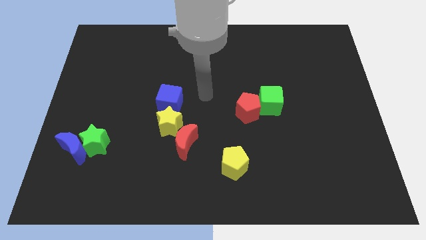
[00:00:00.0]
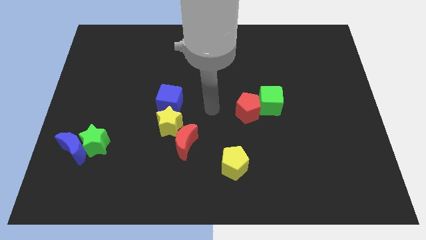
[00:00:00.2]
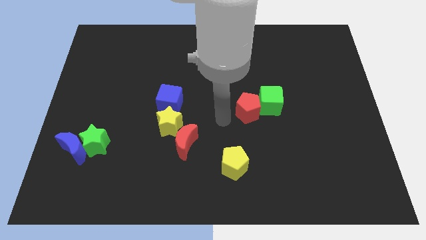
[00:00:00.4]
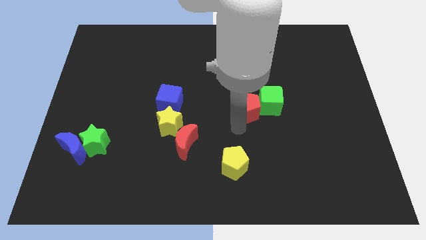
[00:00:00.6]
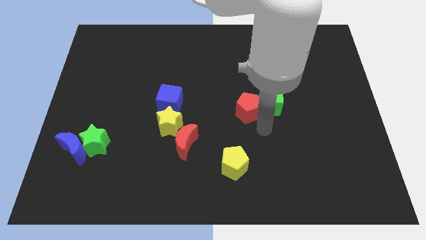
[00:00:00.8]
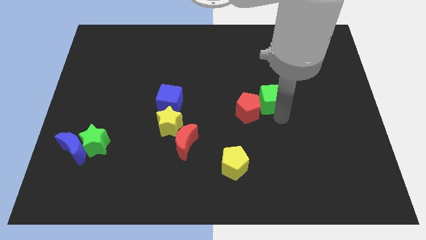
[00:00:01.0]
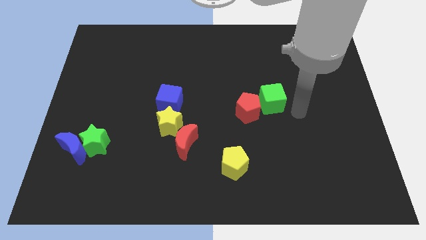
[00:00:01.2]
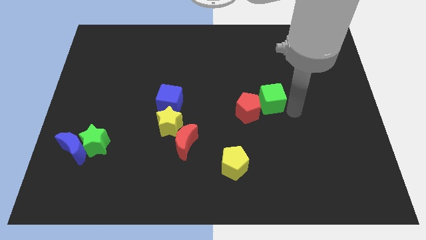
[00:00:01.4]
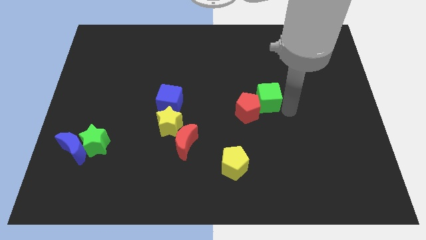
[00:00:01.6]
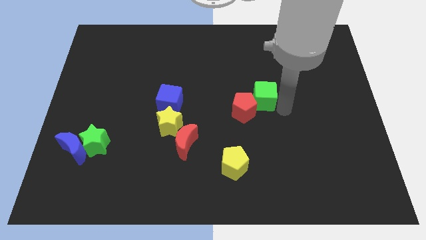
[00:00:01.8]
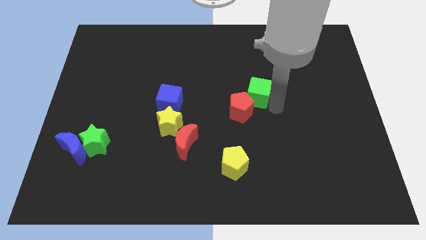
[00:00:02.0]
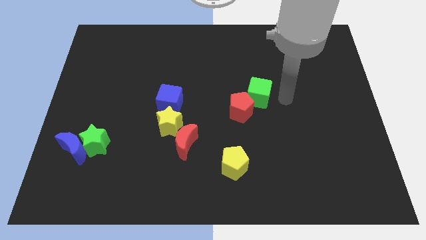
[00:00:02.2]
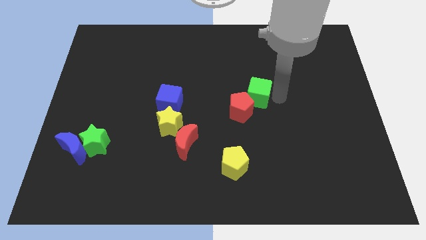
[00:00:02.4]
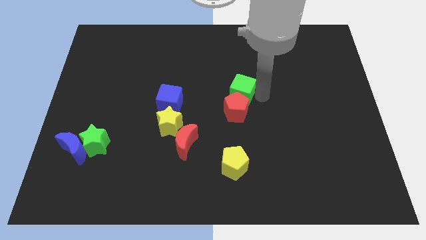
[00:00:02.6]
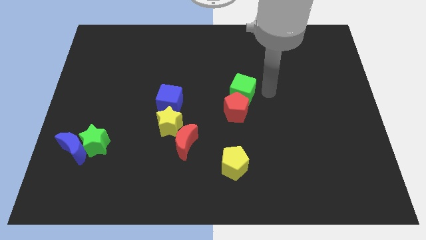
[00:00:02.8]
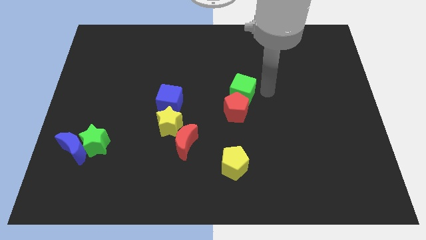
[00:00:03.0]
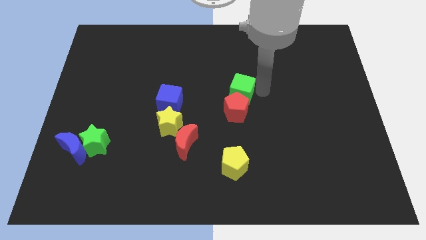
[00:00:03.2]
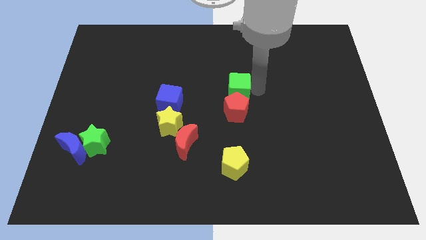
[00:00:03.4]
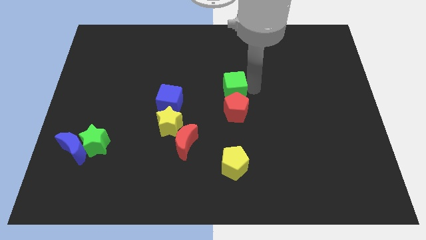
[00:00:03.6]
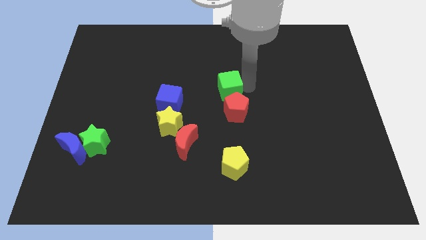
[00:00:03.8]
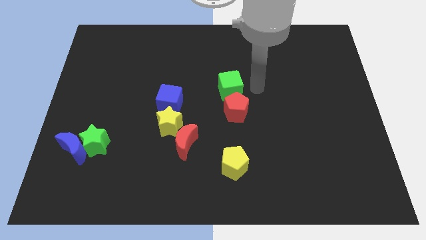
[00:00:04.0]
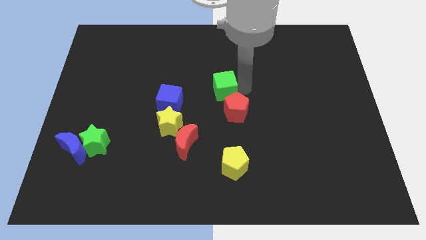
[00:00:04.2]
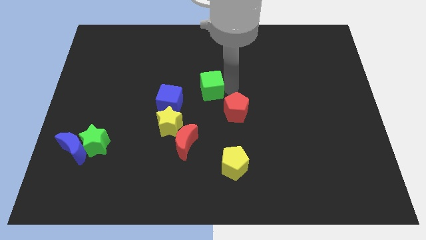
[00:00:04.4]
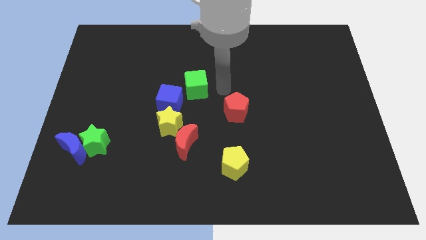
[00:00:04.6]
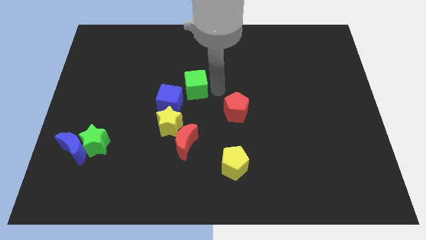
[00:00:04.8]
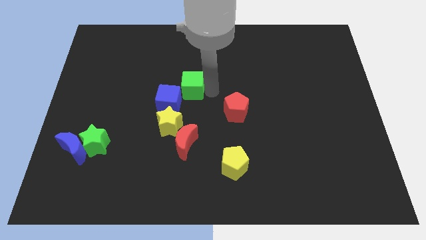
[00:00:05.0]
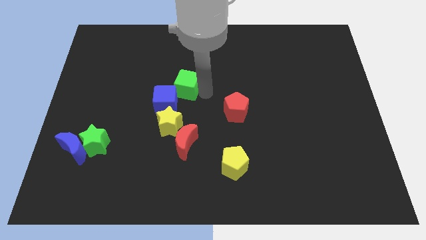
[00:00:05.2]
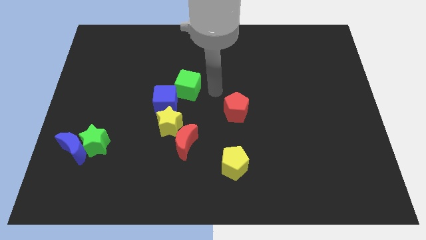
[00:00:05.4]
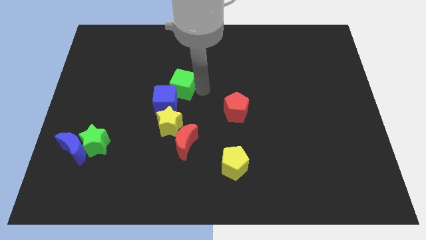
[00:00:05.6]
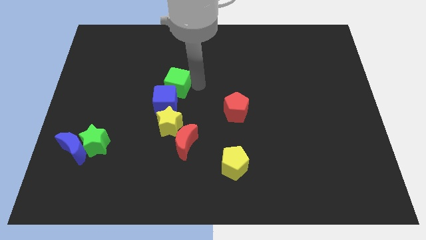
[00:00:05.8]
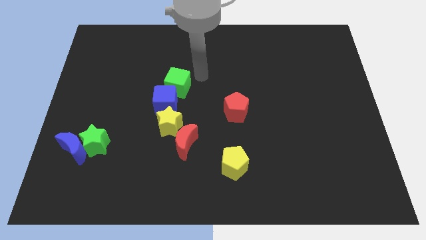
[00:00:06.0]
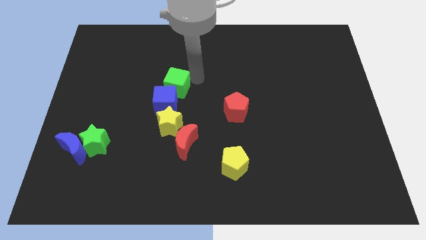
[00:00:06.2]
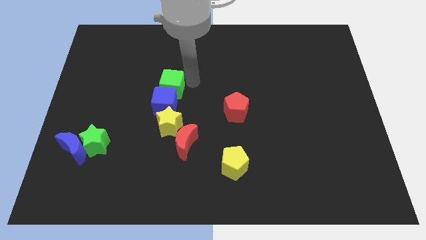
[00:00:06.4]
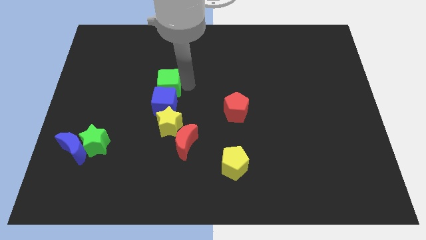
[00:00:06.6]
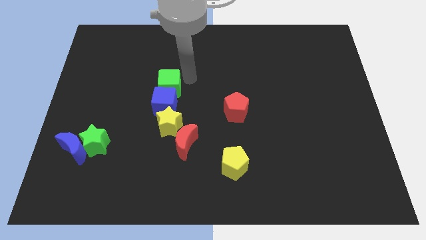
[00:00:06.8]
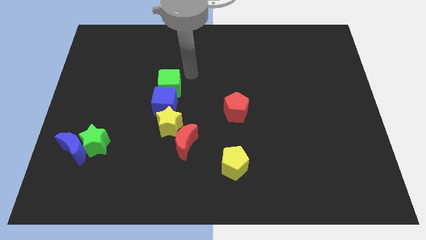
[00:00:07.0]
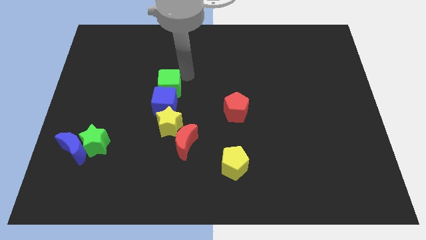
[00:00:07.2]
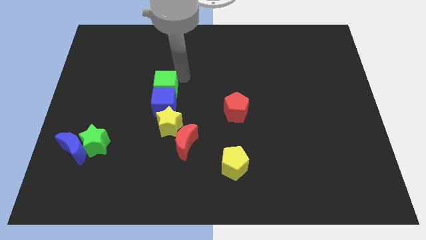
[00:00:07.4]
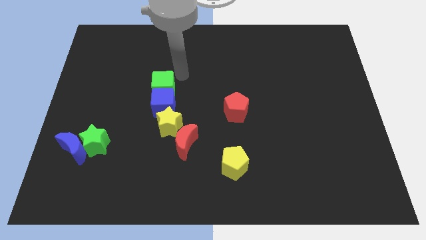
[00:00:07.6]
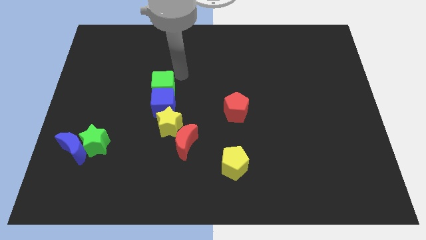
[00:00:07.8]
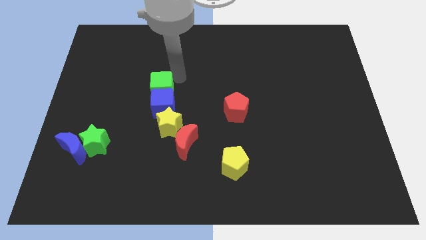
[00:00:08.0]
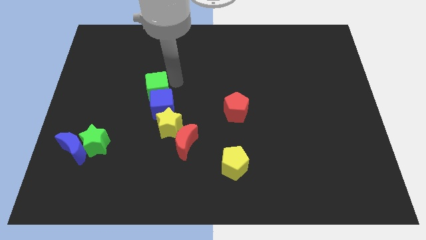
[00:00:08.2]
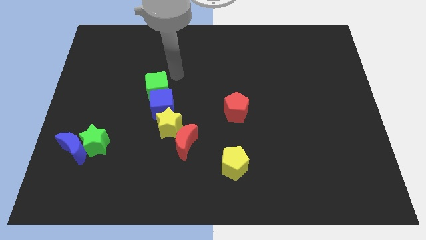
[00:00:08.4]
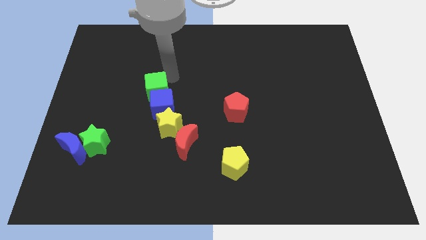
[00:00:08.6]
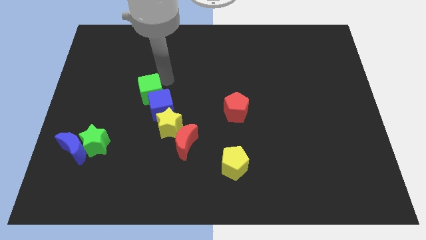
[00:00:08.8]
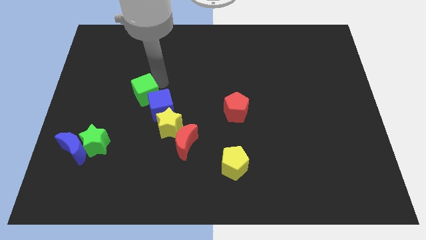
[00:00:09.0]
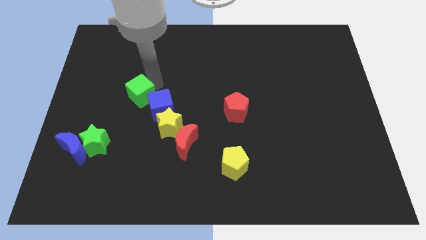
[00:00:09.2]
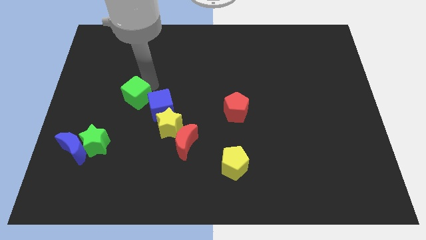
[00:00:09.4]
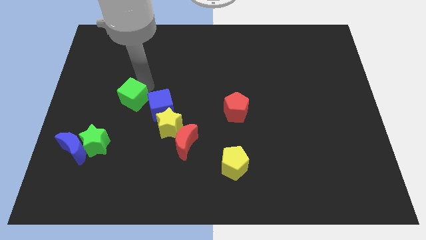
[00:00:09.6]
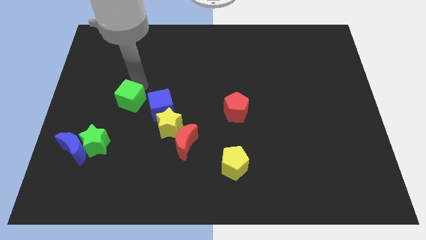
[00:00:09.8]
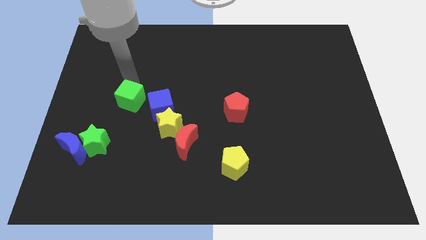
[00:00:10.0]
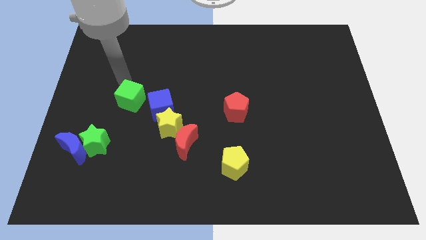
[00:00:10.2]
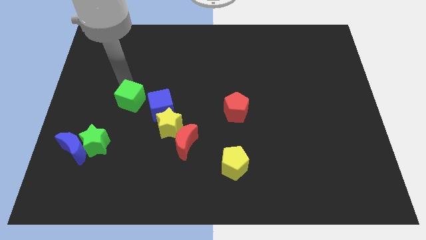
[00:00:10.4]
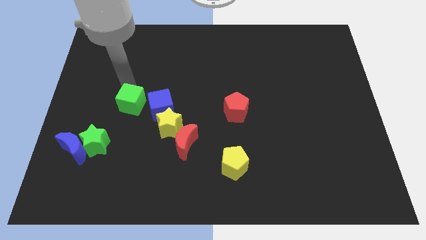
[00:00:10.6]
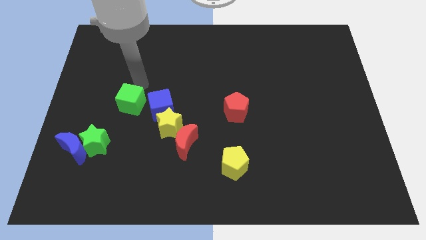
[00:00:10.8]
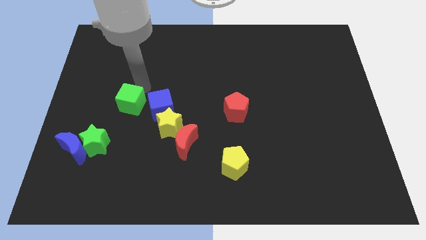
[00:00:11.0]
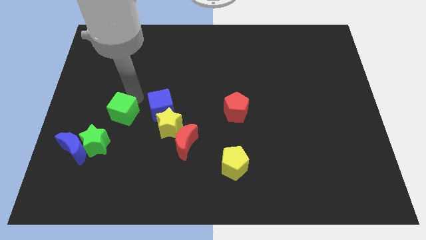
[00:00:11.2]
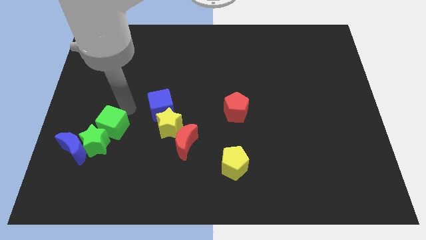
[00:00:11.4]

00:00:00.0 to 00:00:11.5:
push the green cube towards the green star

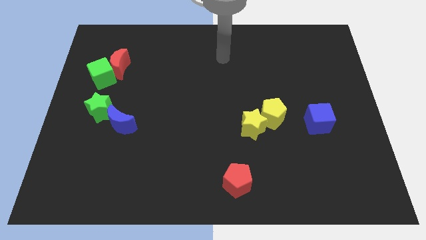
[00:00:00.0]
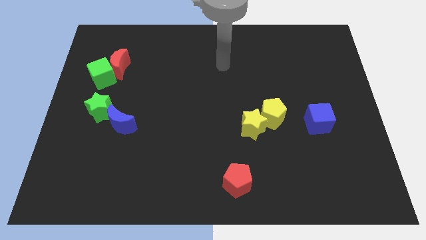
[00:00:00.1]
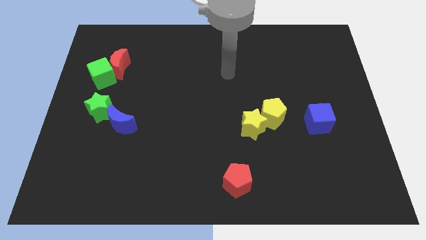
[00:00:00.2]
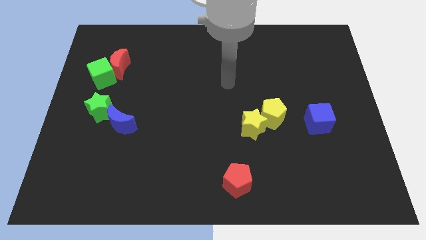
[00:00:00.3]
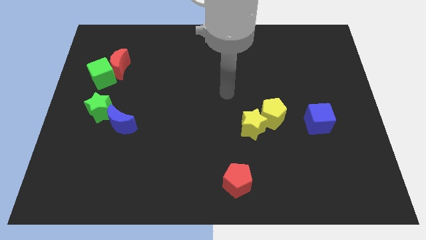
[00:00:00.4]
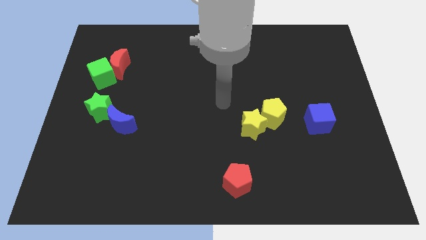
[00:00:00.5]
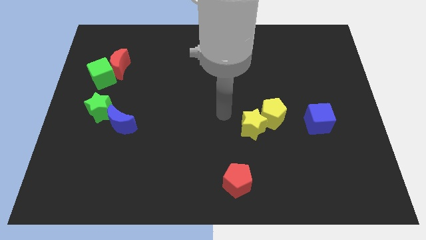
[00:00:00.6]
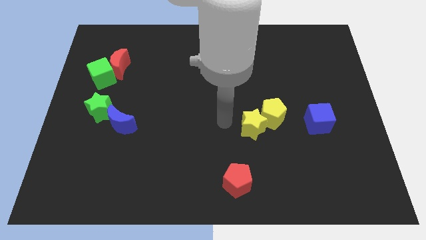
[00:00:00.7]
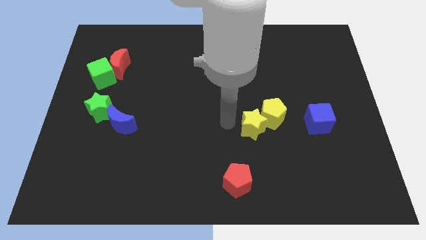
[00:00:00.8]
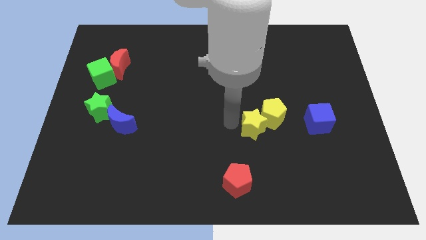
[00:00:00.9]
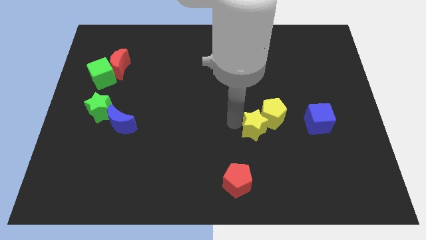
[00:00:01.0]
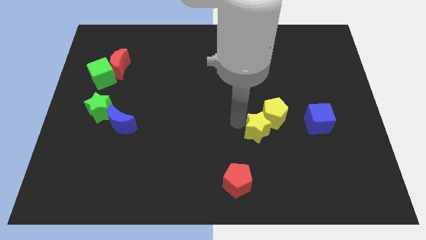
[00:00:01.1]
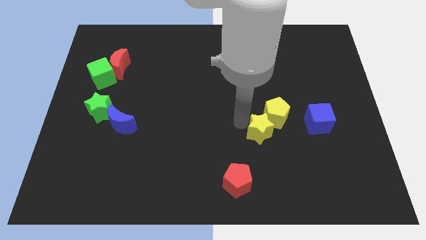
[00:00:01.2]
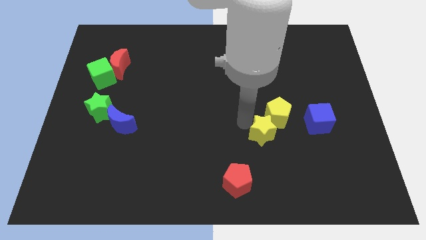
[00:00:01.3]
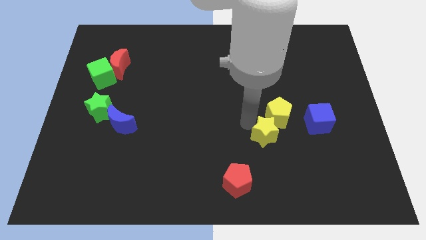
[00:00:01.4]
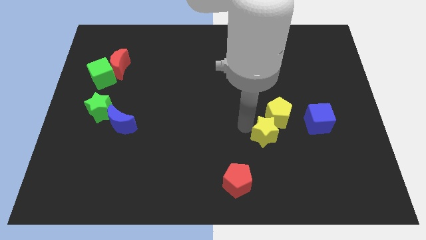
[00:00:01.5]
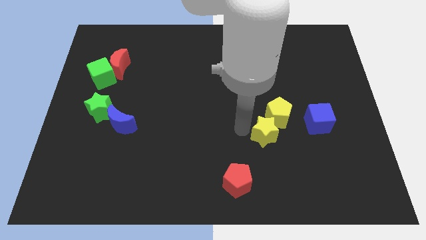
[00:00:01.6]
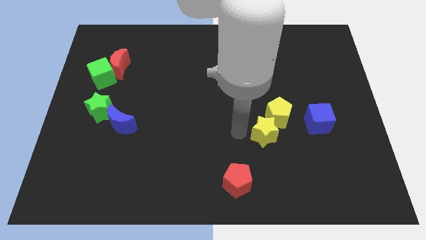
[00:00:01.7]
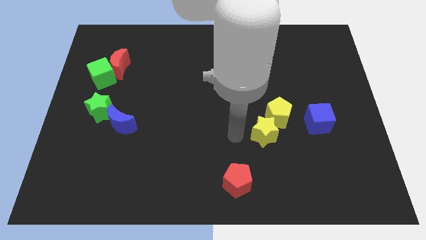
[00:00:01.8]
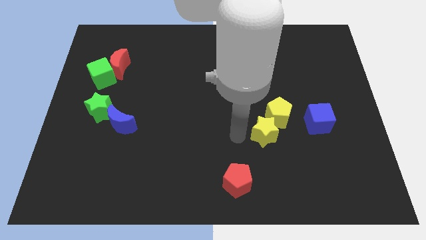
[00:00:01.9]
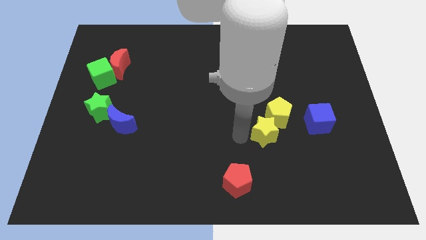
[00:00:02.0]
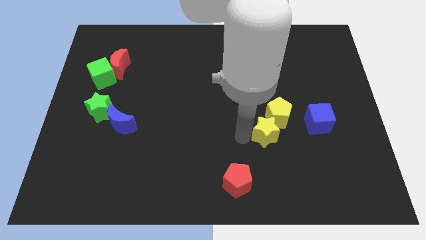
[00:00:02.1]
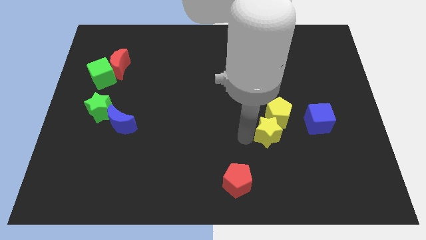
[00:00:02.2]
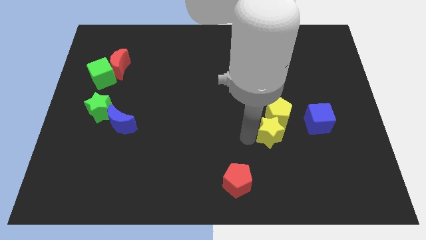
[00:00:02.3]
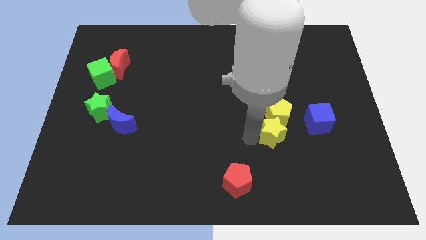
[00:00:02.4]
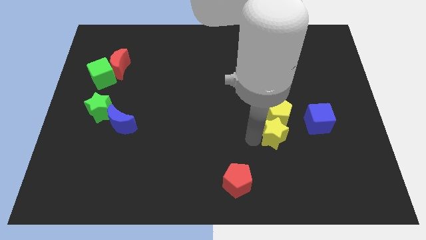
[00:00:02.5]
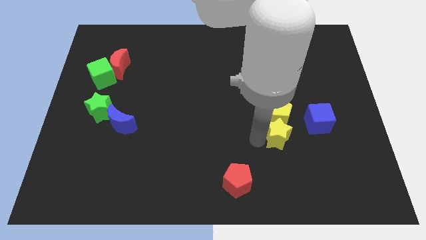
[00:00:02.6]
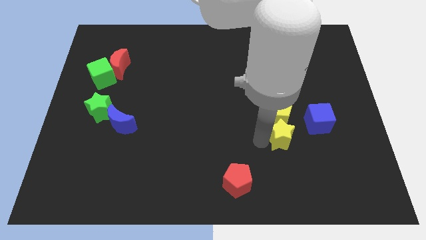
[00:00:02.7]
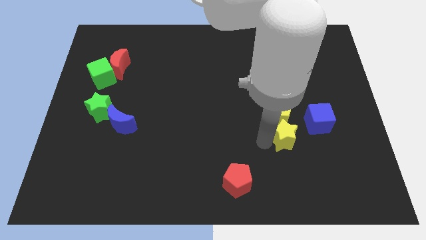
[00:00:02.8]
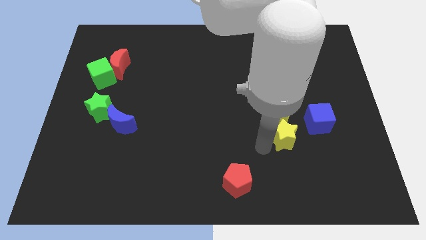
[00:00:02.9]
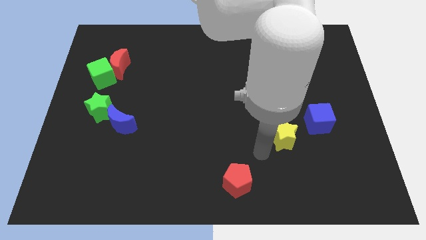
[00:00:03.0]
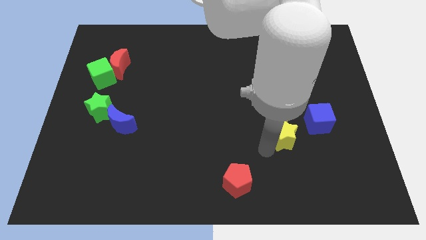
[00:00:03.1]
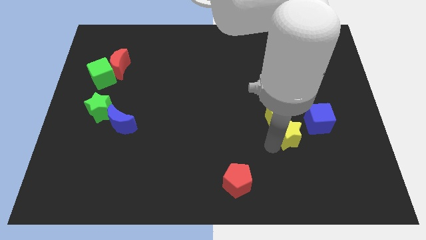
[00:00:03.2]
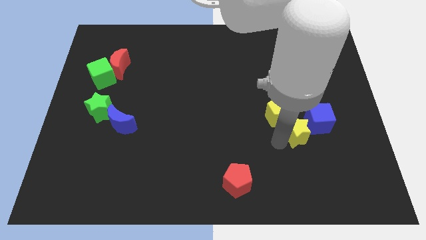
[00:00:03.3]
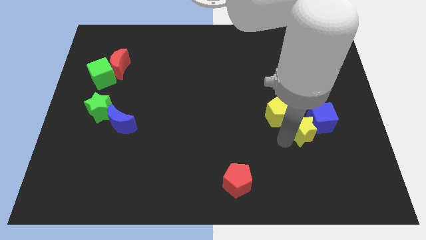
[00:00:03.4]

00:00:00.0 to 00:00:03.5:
push the yellow star towards the blue cube
